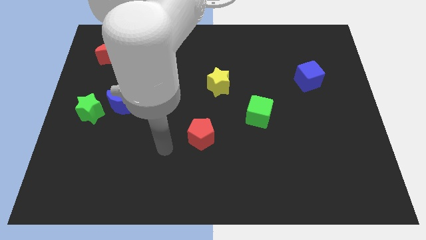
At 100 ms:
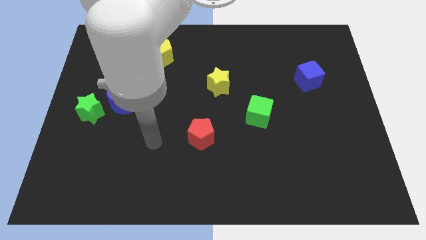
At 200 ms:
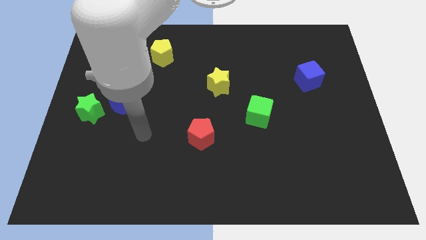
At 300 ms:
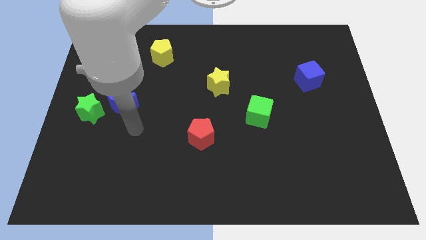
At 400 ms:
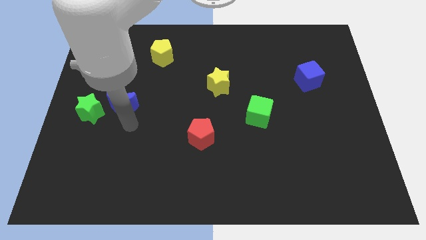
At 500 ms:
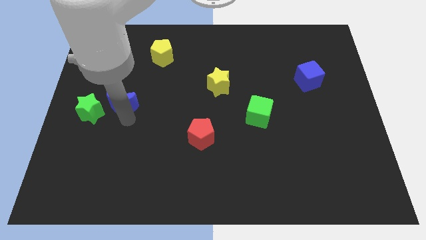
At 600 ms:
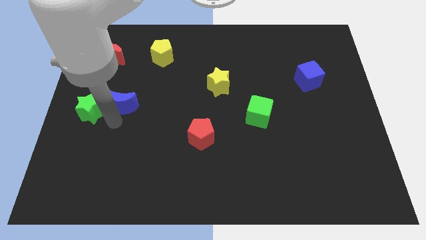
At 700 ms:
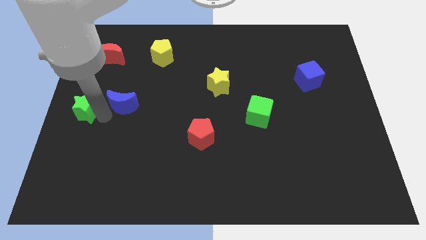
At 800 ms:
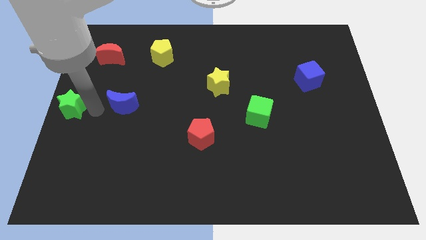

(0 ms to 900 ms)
pull the blue moon apart from the green star

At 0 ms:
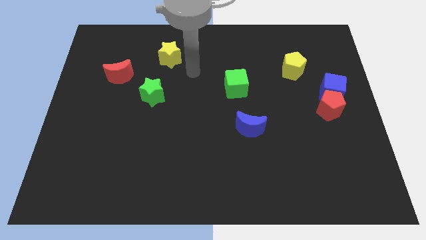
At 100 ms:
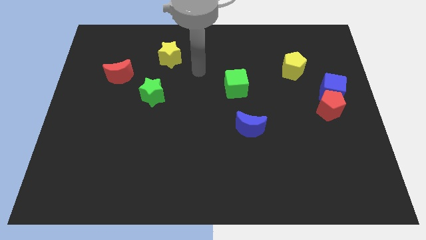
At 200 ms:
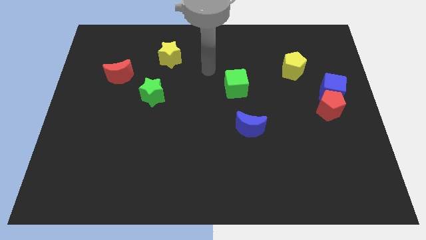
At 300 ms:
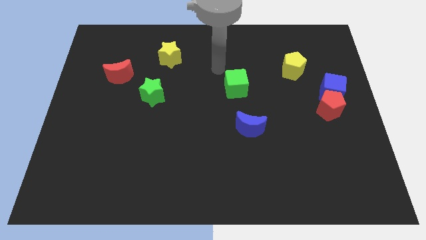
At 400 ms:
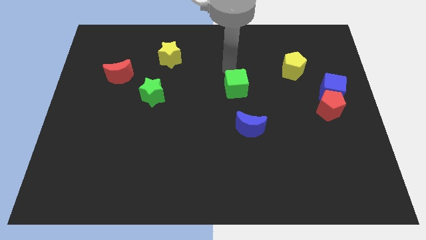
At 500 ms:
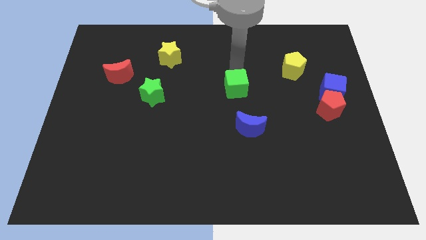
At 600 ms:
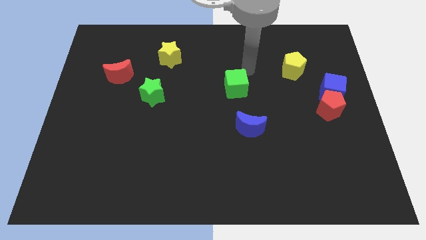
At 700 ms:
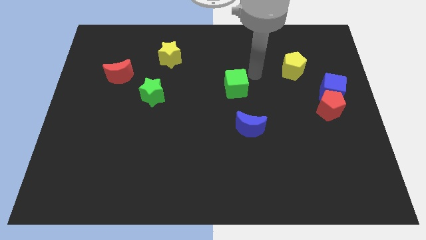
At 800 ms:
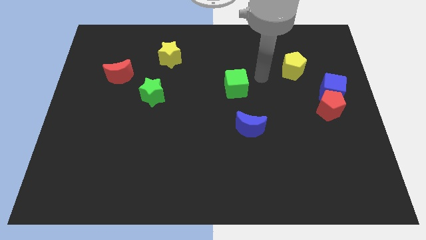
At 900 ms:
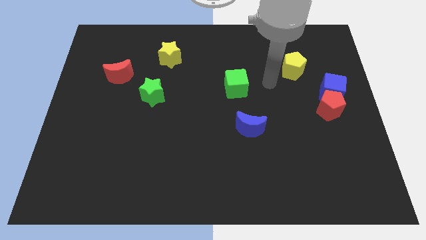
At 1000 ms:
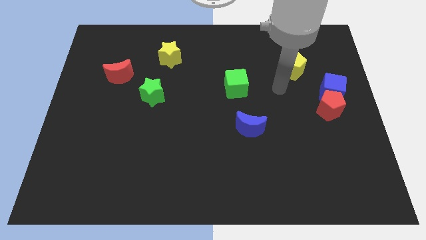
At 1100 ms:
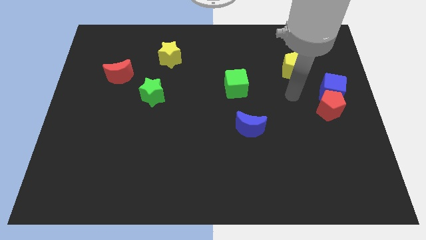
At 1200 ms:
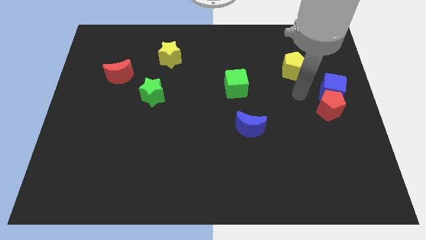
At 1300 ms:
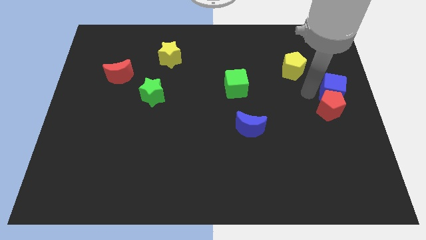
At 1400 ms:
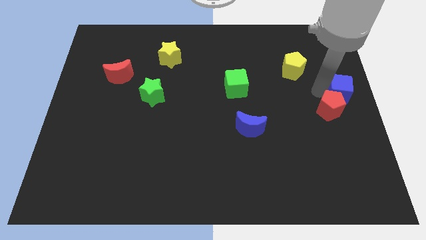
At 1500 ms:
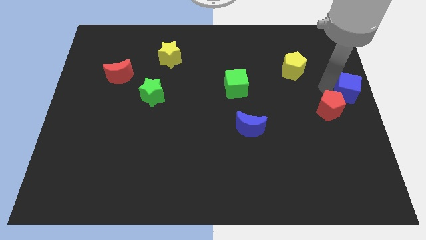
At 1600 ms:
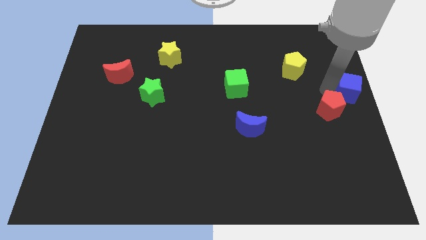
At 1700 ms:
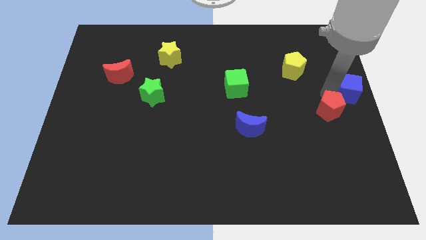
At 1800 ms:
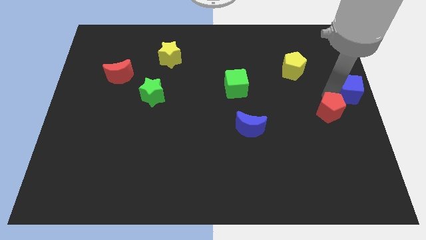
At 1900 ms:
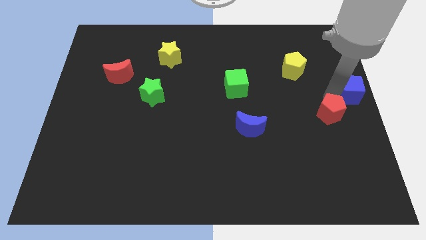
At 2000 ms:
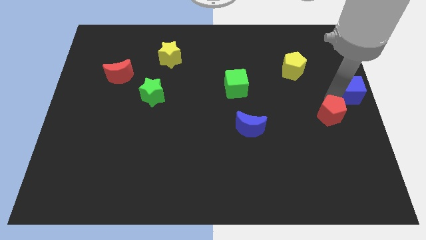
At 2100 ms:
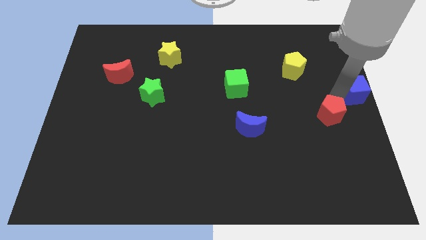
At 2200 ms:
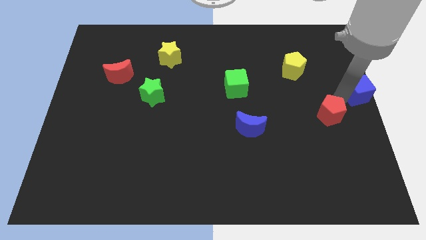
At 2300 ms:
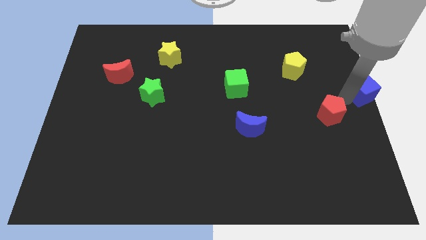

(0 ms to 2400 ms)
separate the red pentagon from the blue cube

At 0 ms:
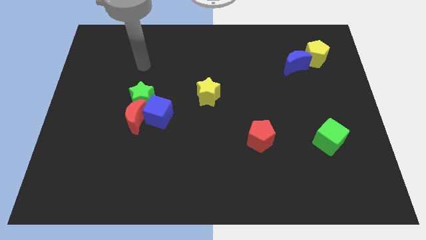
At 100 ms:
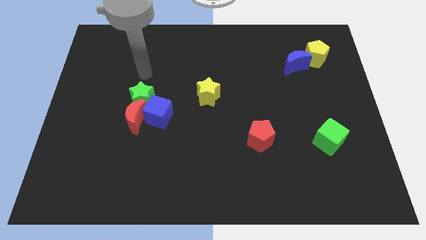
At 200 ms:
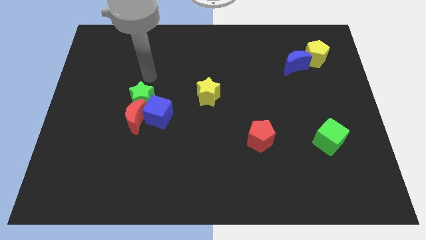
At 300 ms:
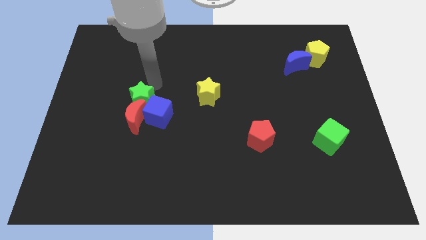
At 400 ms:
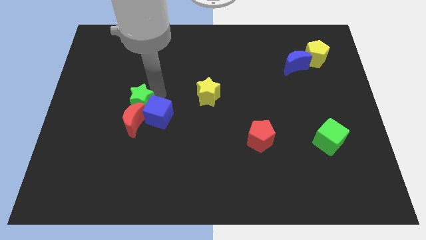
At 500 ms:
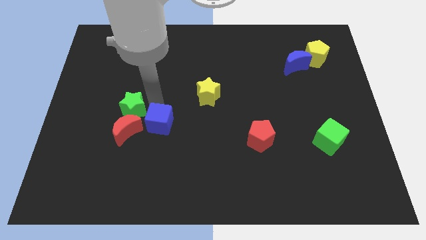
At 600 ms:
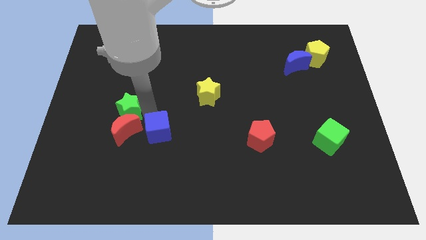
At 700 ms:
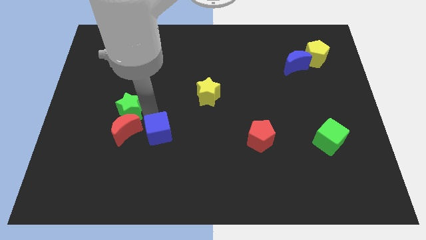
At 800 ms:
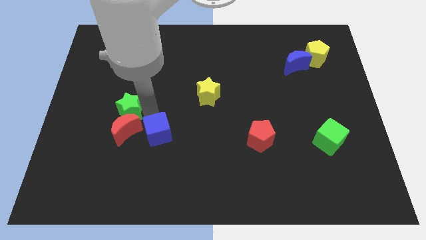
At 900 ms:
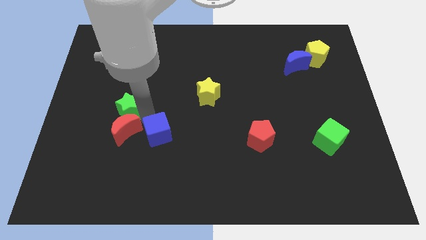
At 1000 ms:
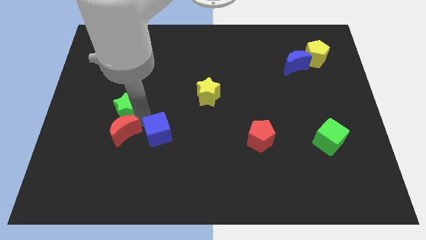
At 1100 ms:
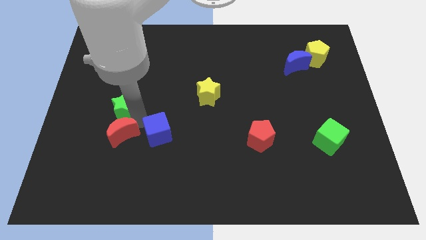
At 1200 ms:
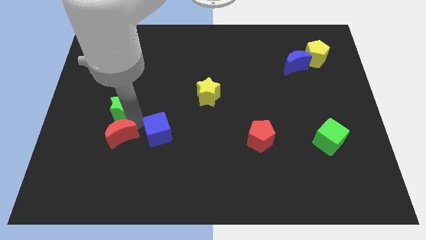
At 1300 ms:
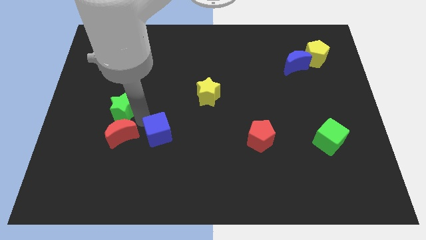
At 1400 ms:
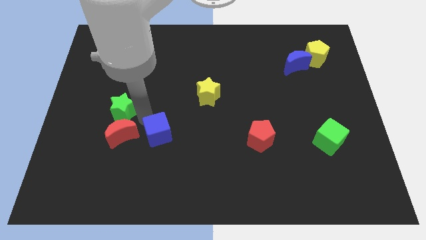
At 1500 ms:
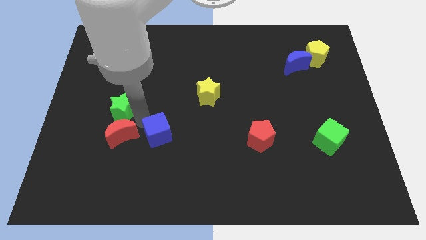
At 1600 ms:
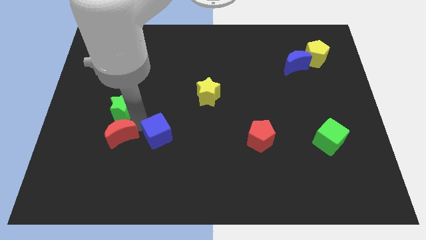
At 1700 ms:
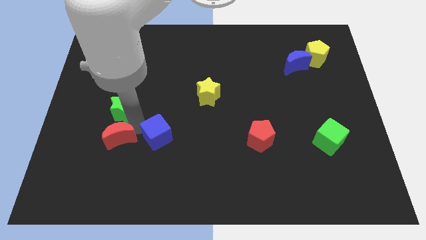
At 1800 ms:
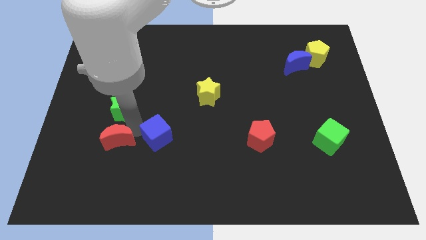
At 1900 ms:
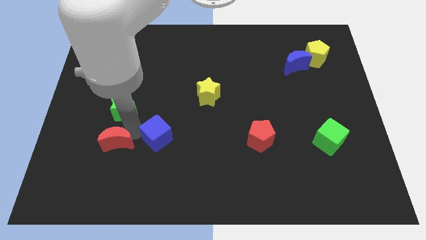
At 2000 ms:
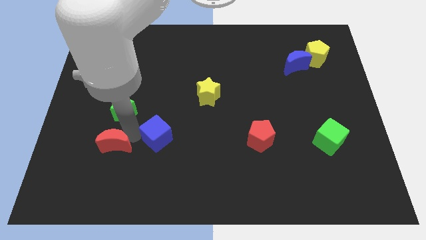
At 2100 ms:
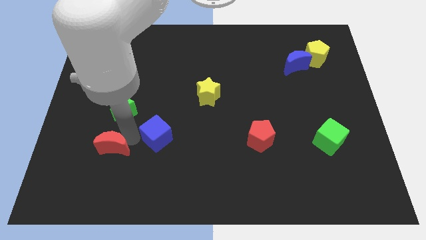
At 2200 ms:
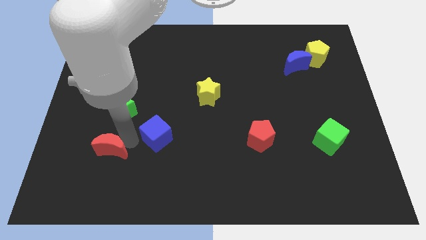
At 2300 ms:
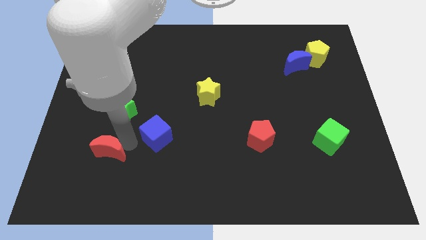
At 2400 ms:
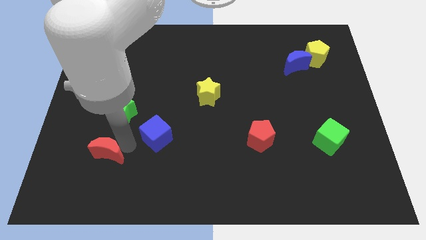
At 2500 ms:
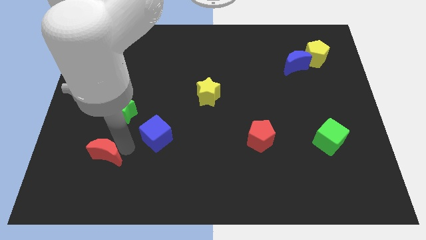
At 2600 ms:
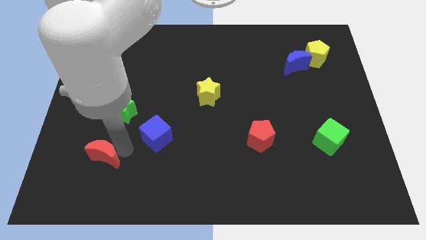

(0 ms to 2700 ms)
move the red moon away from the blue cube and green star

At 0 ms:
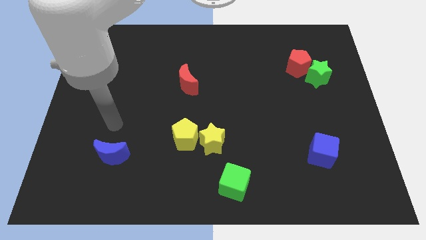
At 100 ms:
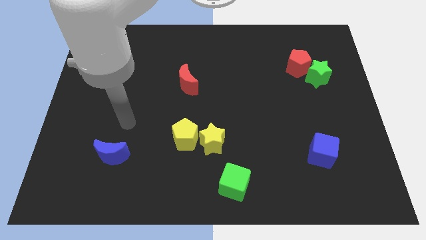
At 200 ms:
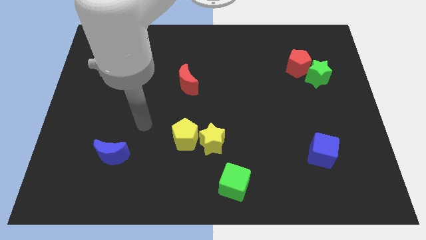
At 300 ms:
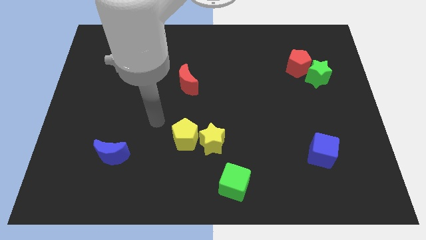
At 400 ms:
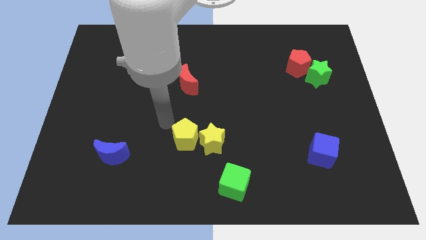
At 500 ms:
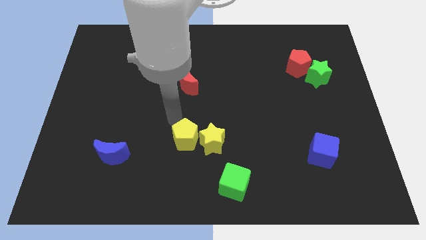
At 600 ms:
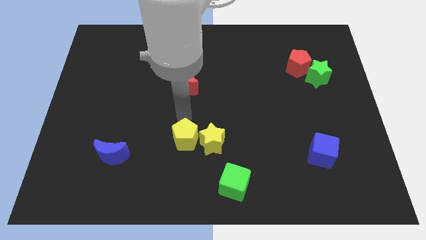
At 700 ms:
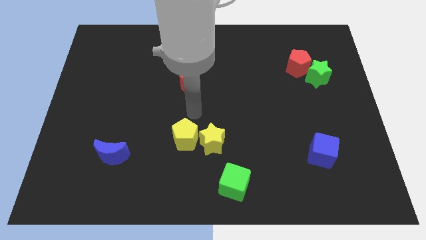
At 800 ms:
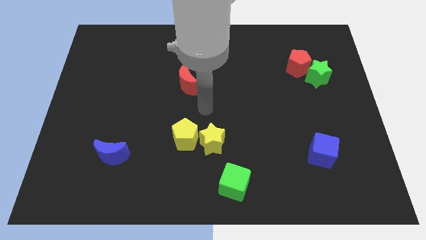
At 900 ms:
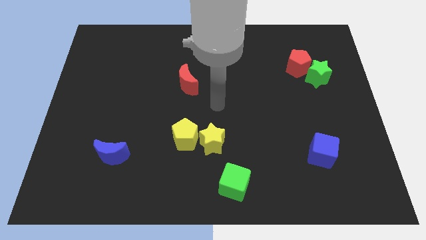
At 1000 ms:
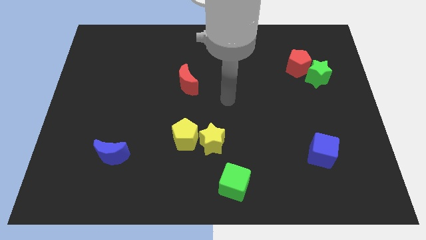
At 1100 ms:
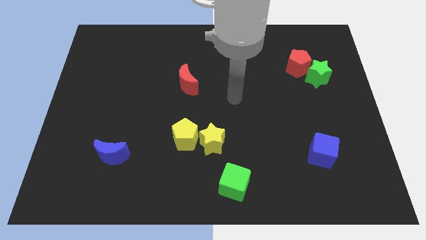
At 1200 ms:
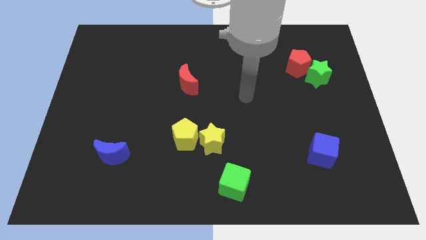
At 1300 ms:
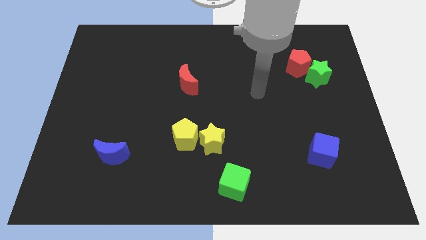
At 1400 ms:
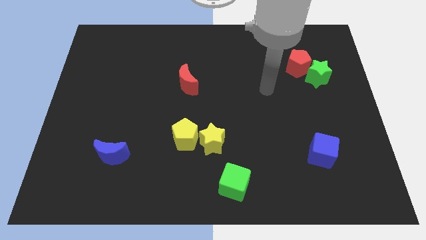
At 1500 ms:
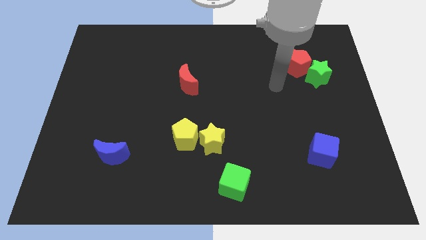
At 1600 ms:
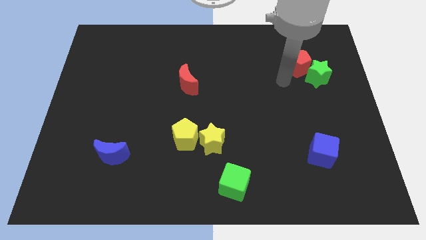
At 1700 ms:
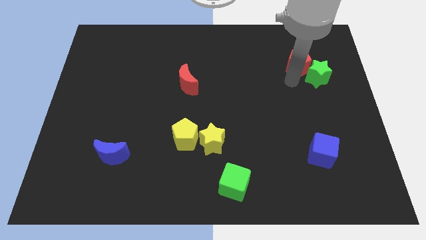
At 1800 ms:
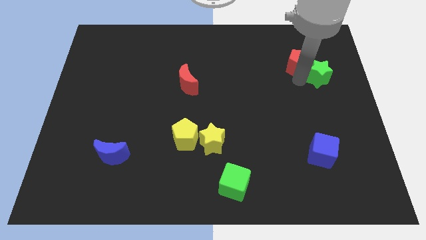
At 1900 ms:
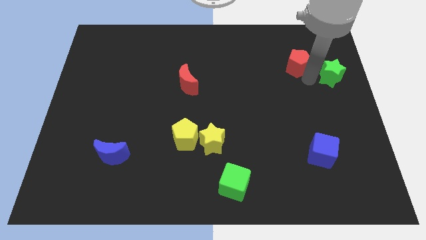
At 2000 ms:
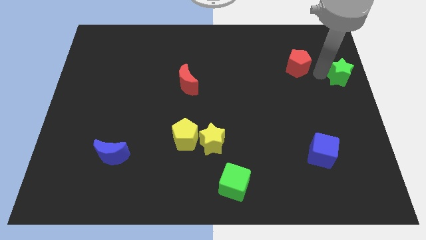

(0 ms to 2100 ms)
move the red pentagon away from the green star

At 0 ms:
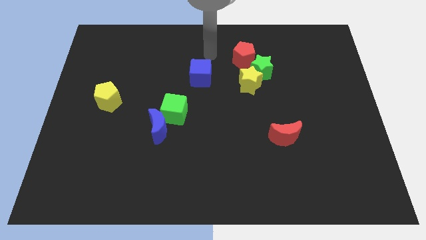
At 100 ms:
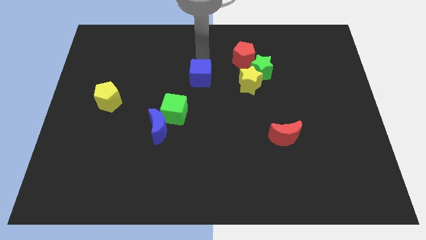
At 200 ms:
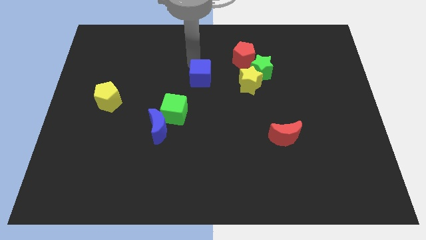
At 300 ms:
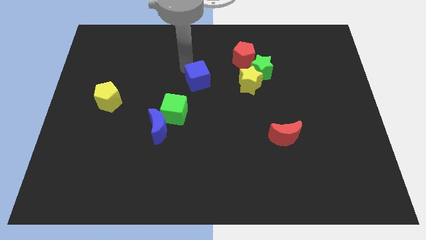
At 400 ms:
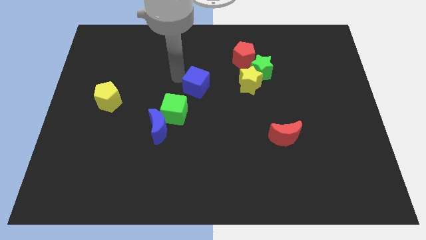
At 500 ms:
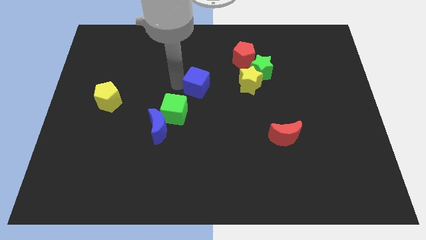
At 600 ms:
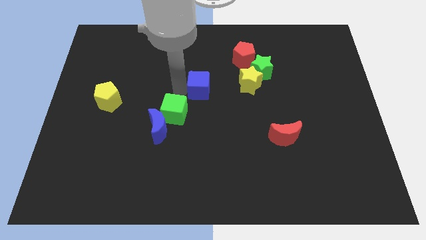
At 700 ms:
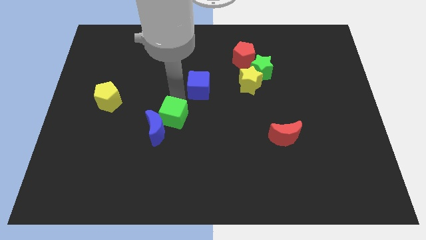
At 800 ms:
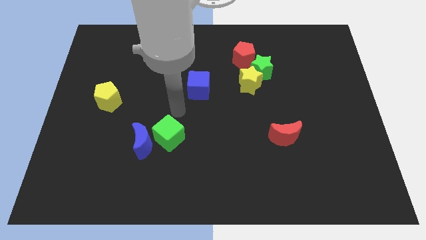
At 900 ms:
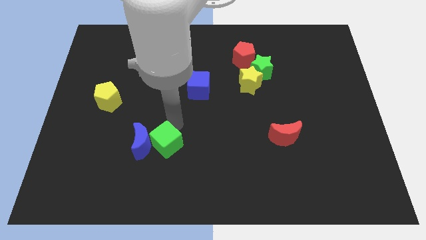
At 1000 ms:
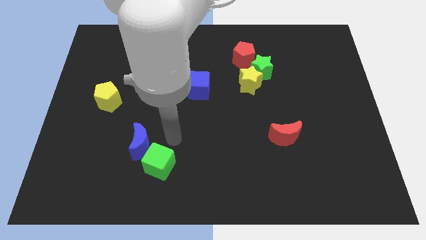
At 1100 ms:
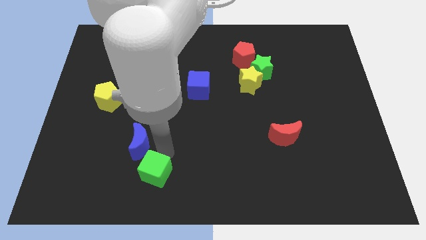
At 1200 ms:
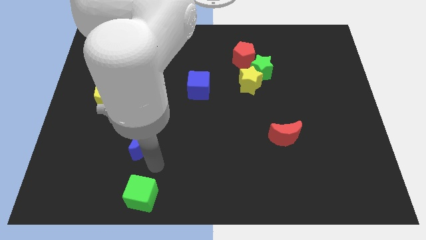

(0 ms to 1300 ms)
separate the blue moon from the green cube
